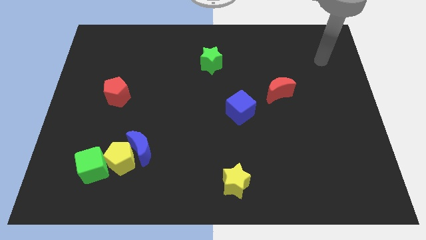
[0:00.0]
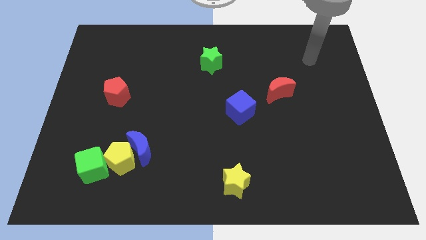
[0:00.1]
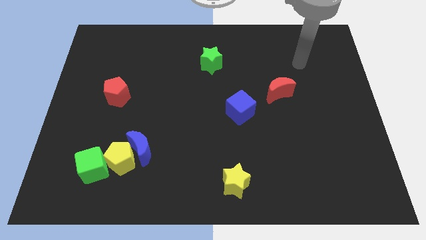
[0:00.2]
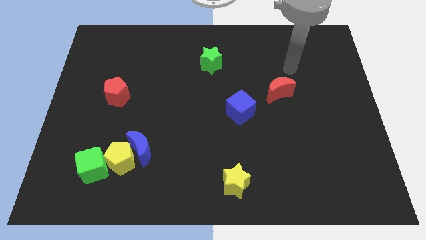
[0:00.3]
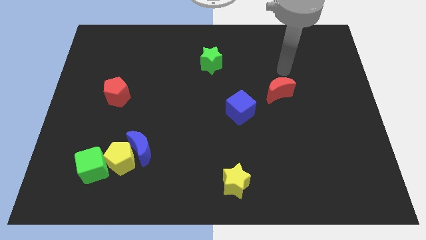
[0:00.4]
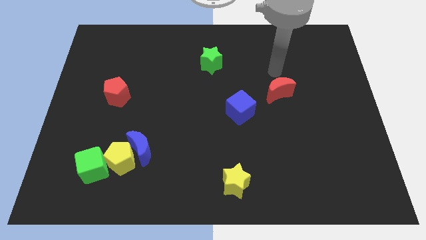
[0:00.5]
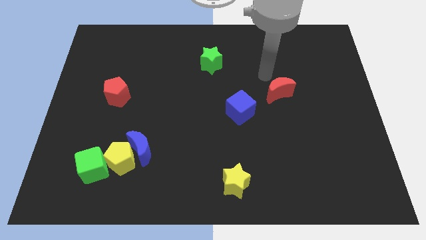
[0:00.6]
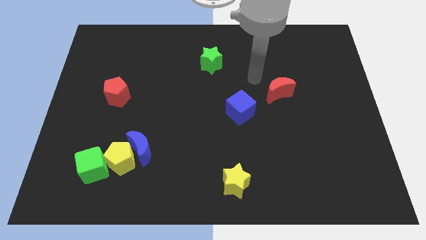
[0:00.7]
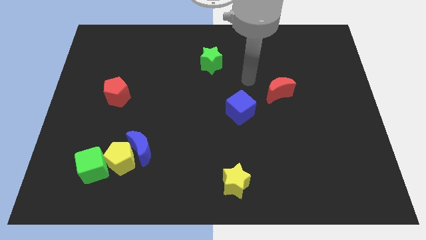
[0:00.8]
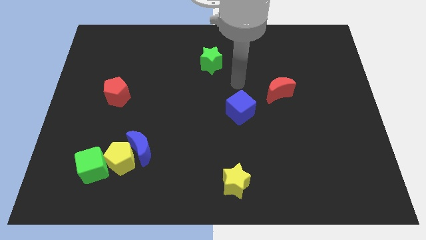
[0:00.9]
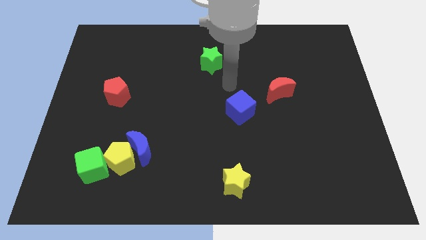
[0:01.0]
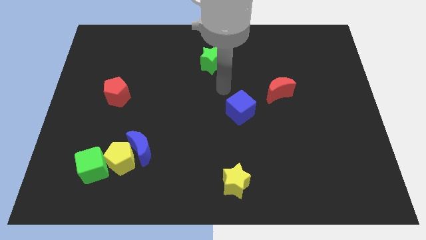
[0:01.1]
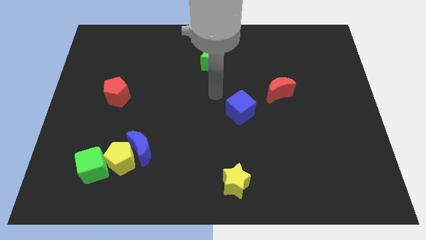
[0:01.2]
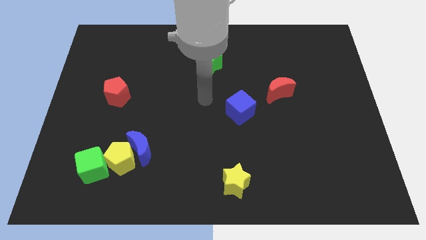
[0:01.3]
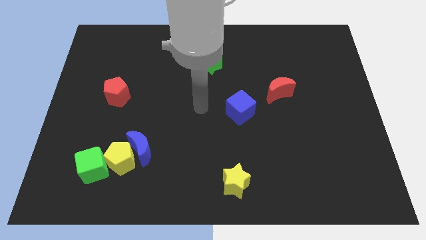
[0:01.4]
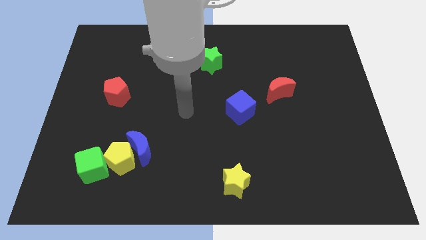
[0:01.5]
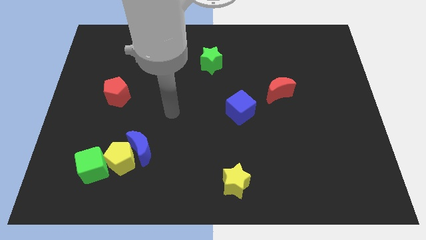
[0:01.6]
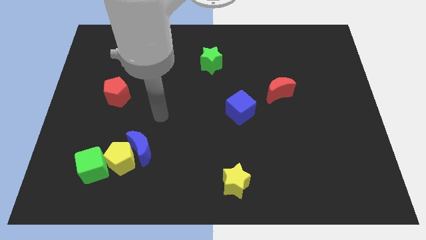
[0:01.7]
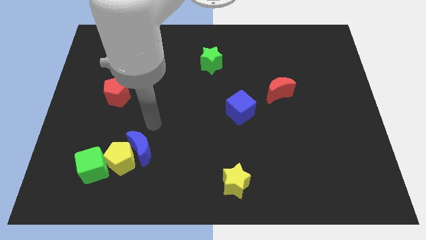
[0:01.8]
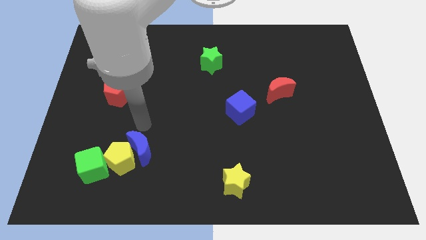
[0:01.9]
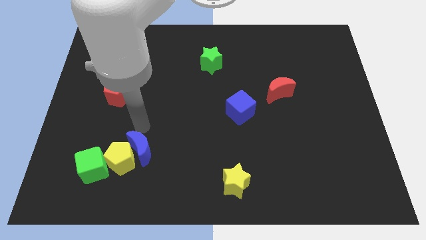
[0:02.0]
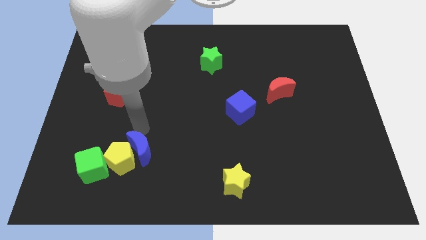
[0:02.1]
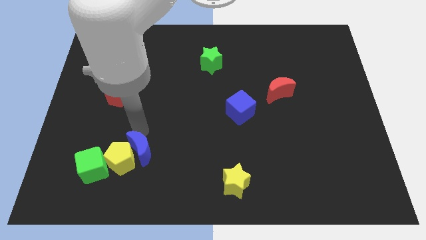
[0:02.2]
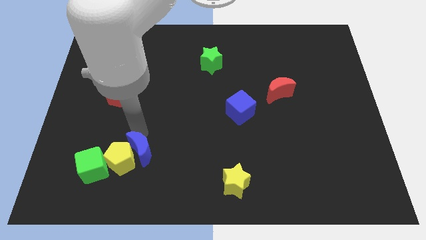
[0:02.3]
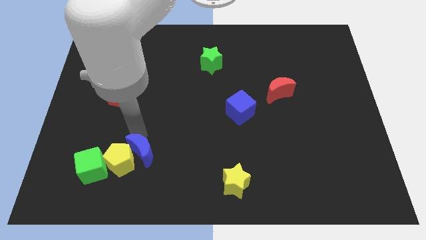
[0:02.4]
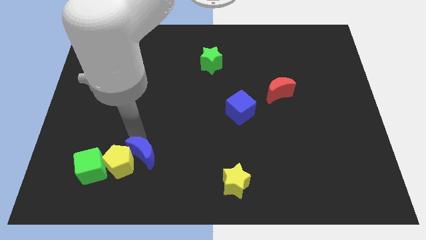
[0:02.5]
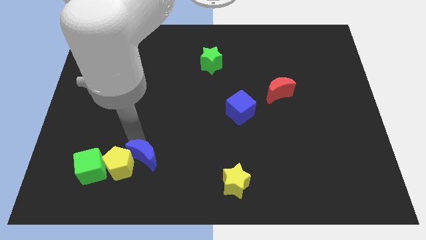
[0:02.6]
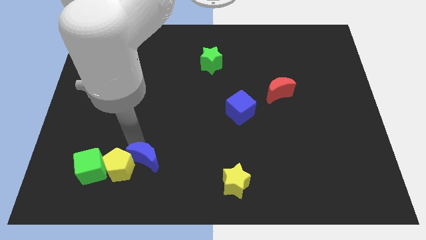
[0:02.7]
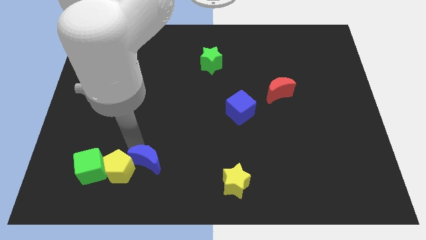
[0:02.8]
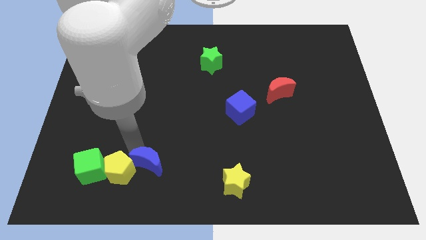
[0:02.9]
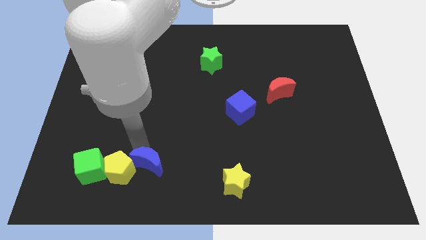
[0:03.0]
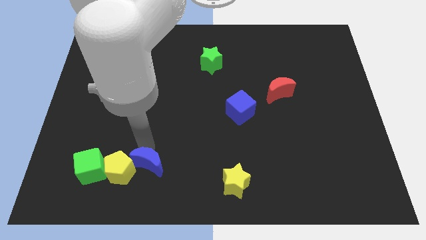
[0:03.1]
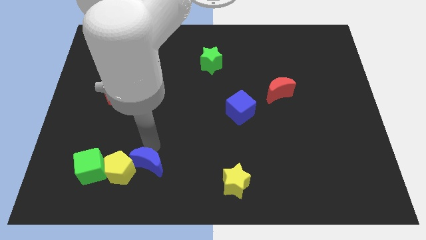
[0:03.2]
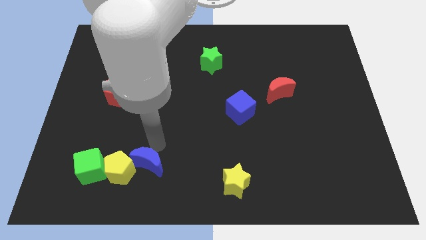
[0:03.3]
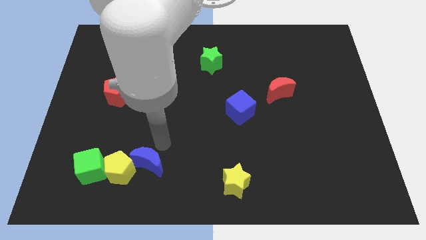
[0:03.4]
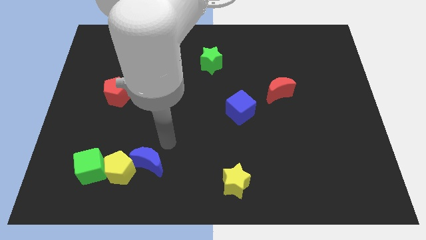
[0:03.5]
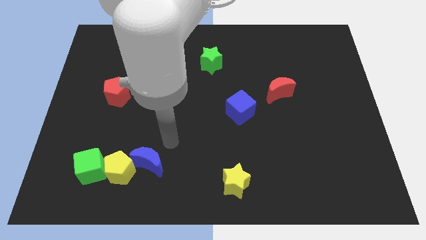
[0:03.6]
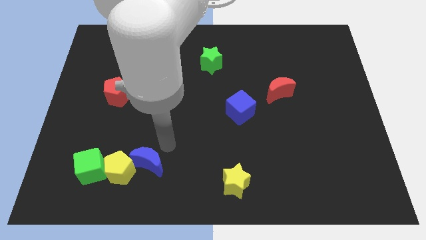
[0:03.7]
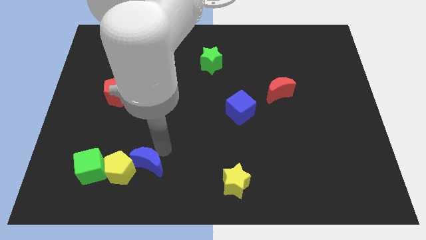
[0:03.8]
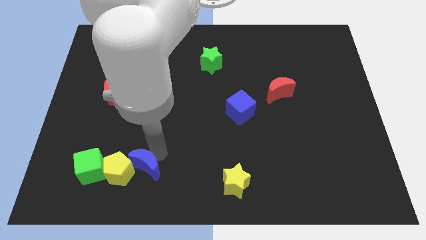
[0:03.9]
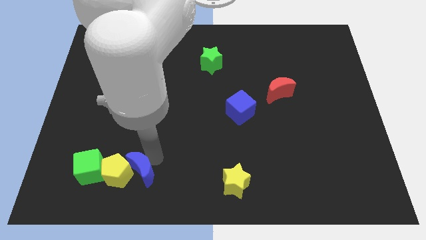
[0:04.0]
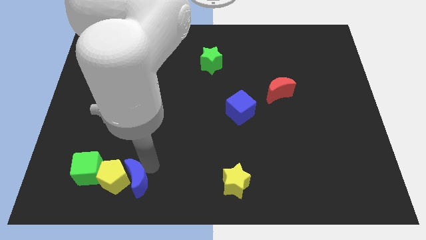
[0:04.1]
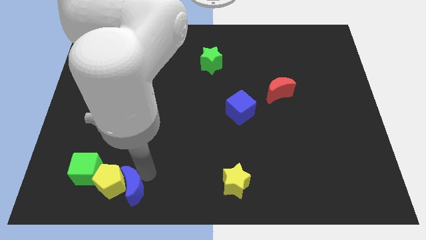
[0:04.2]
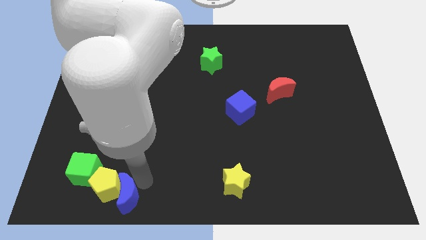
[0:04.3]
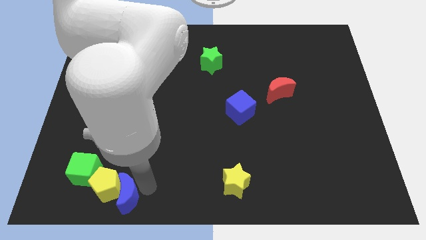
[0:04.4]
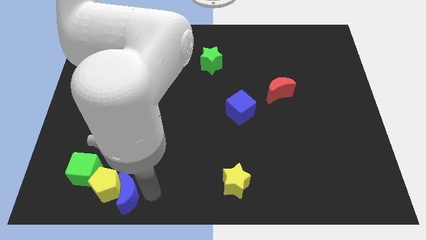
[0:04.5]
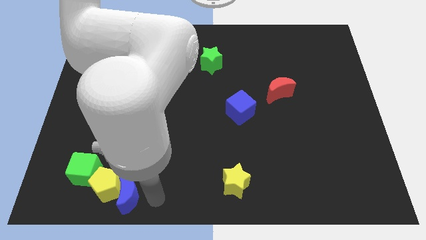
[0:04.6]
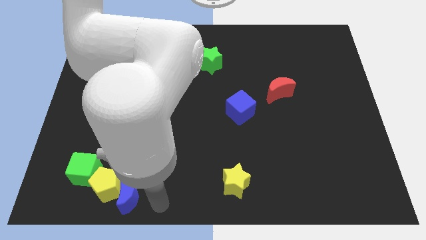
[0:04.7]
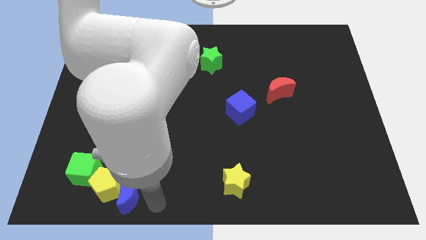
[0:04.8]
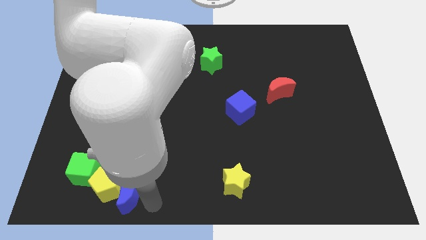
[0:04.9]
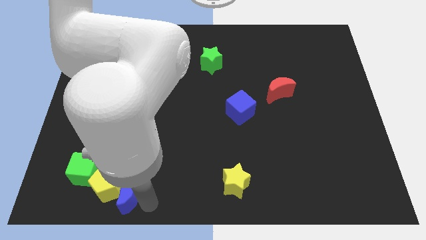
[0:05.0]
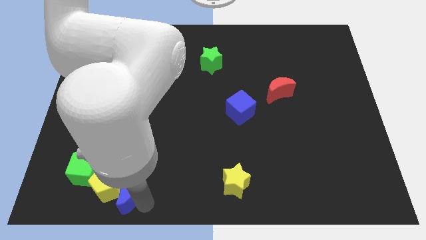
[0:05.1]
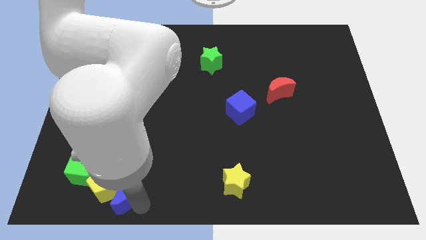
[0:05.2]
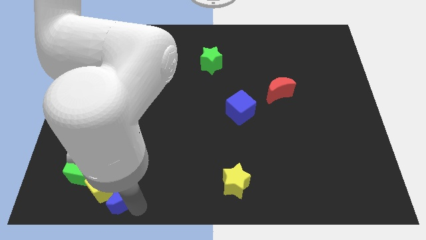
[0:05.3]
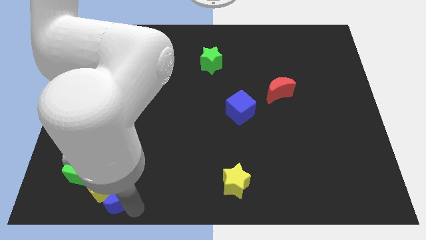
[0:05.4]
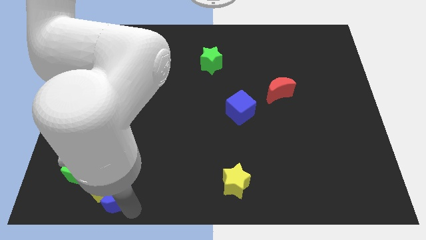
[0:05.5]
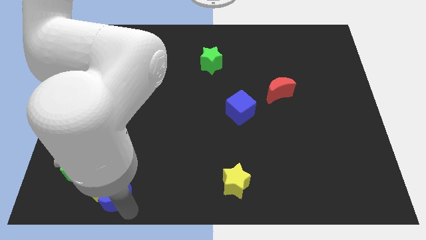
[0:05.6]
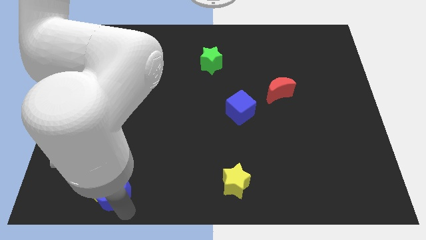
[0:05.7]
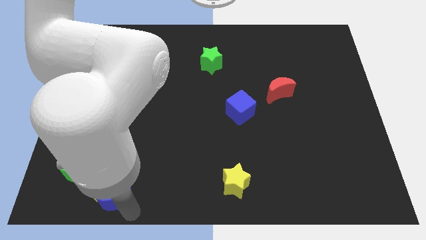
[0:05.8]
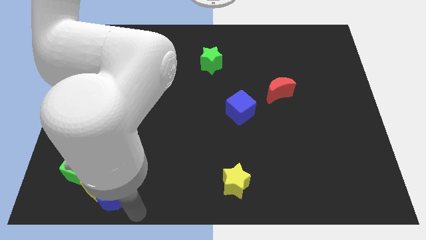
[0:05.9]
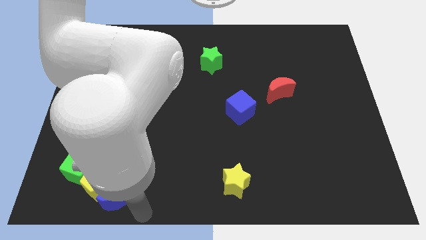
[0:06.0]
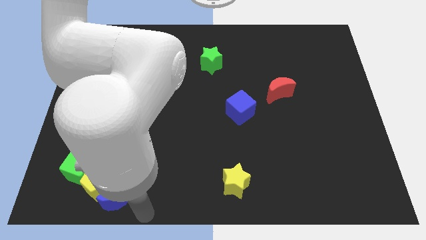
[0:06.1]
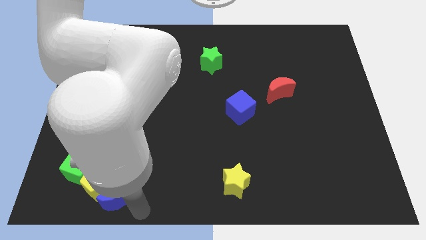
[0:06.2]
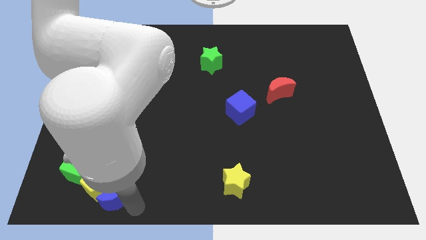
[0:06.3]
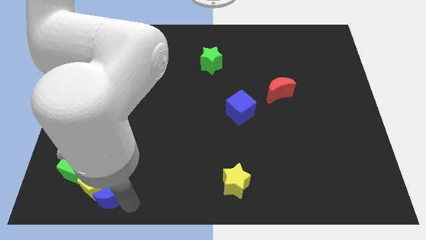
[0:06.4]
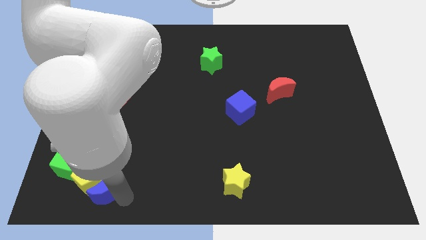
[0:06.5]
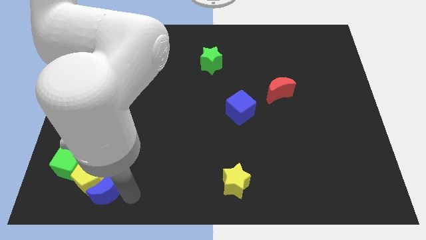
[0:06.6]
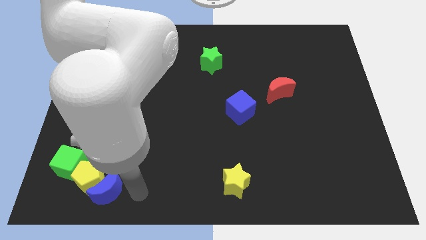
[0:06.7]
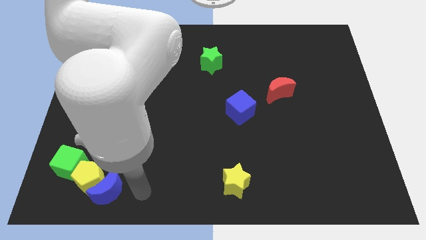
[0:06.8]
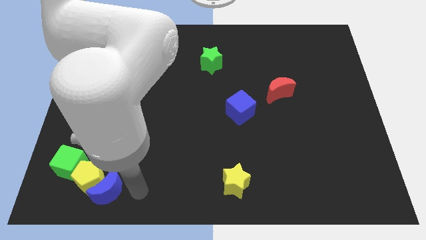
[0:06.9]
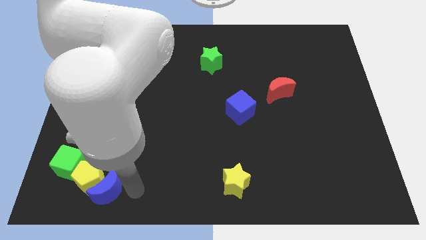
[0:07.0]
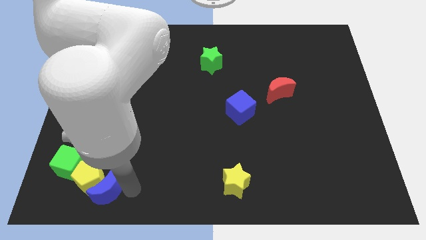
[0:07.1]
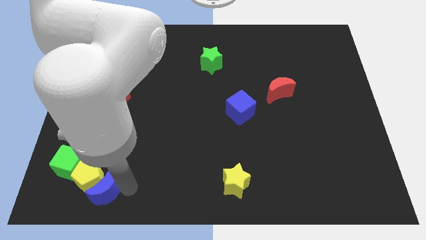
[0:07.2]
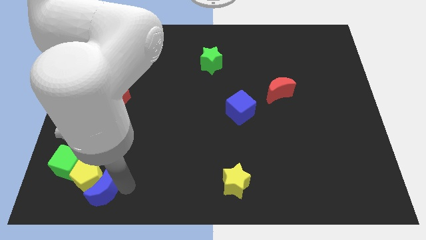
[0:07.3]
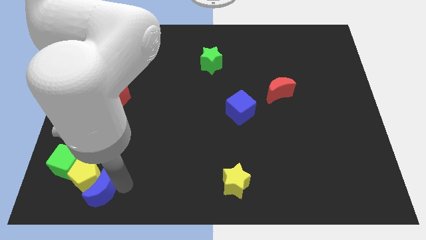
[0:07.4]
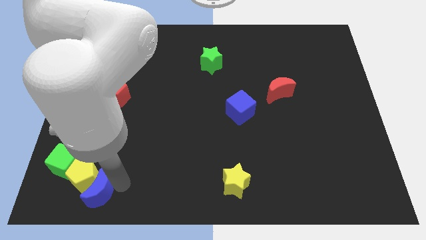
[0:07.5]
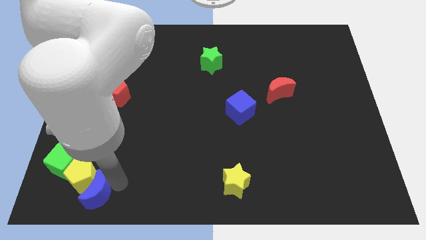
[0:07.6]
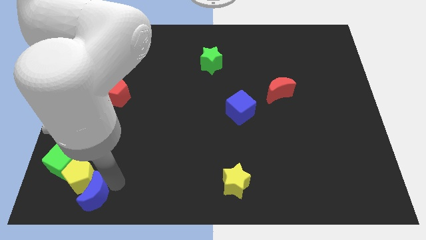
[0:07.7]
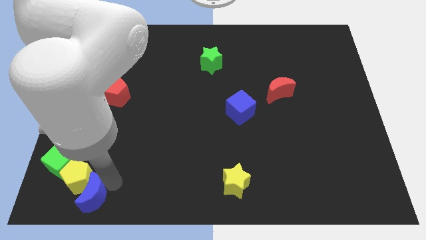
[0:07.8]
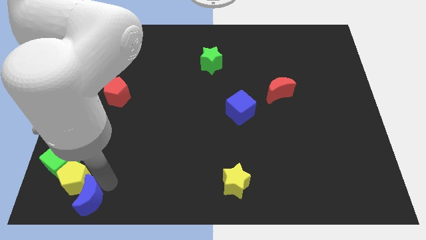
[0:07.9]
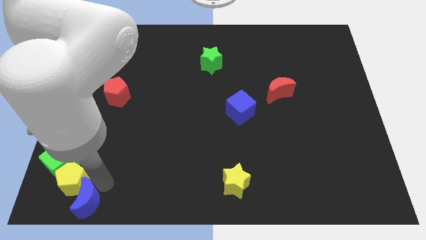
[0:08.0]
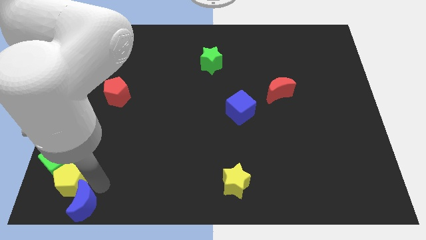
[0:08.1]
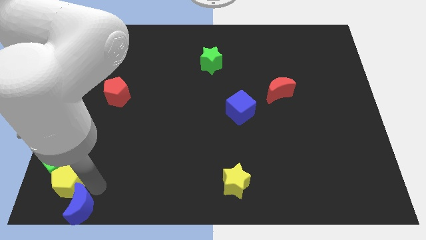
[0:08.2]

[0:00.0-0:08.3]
put the blue moon to the lower left corner
